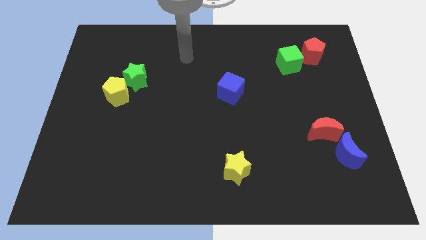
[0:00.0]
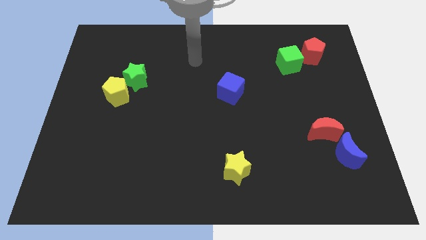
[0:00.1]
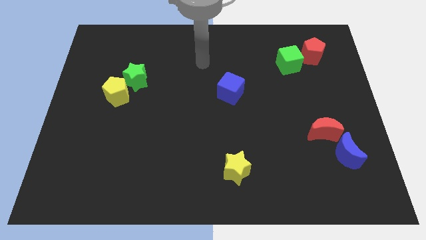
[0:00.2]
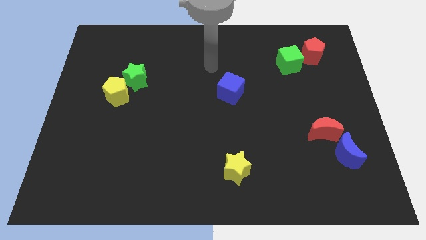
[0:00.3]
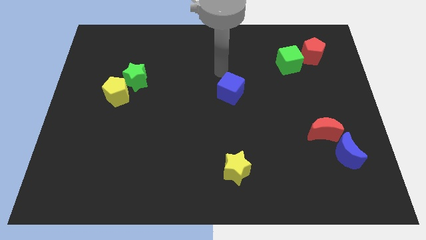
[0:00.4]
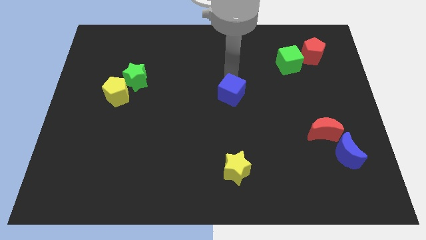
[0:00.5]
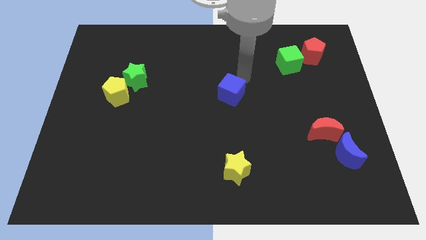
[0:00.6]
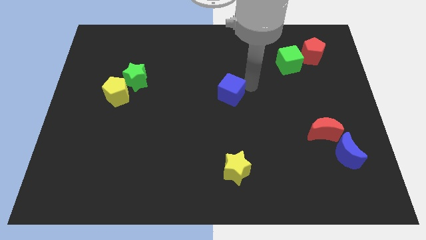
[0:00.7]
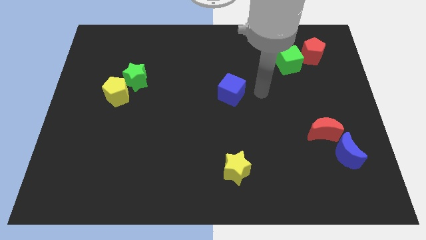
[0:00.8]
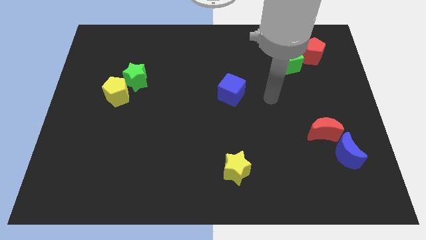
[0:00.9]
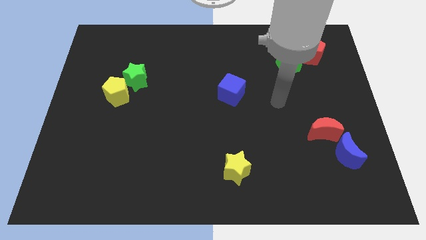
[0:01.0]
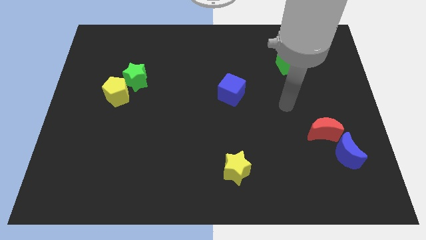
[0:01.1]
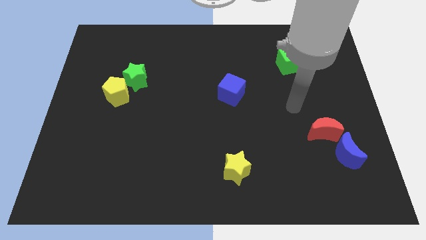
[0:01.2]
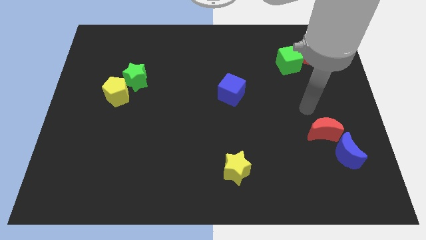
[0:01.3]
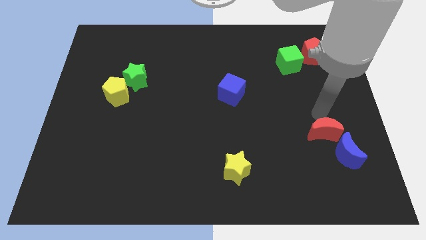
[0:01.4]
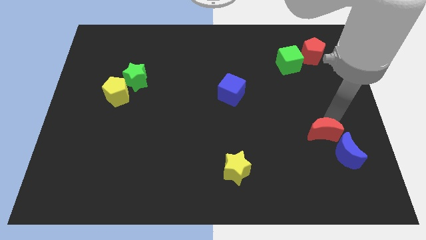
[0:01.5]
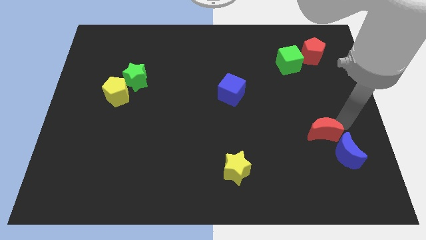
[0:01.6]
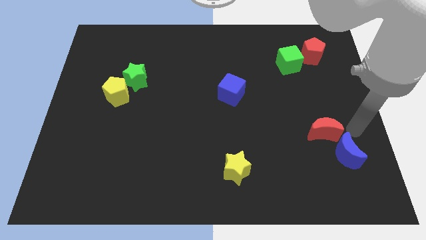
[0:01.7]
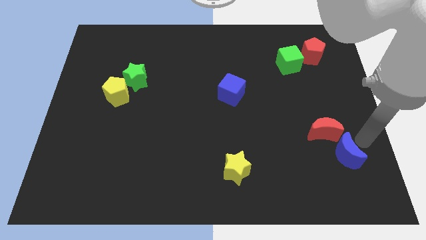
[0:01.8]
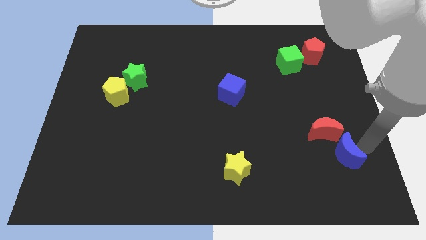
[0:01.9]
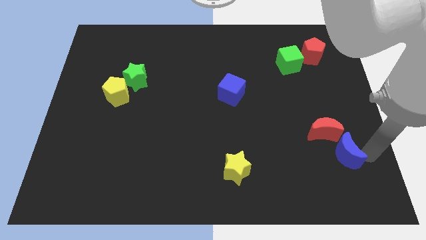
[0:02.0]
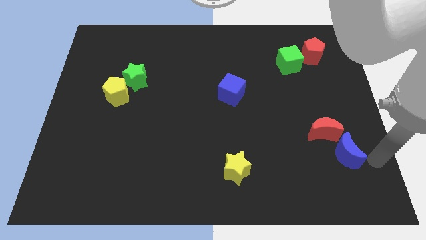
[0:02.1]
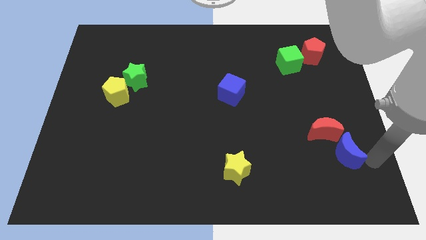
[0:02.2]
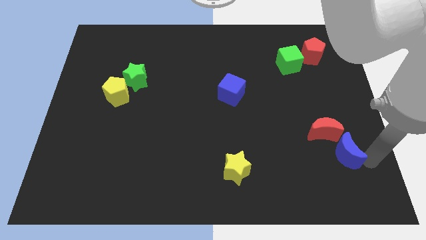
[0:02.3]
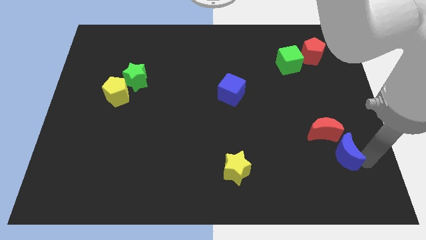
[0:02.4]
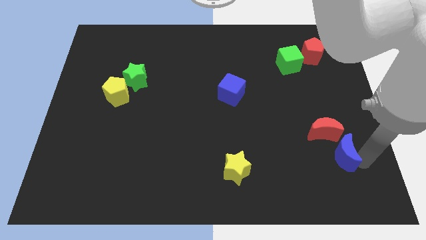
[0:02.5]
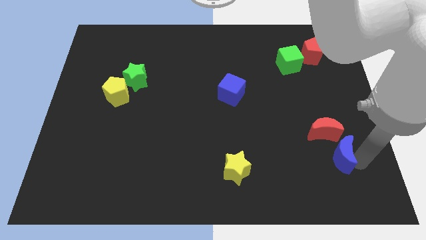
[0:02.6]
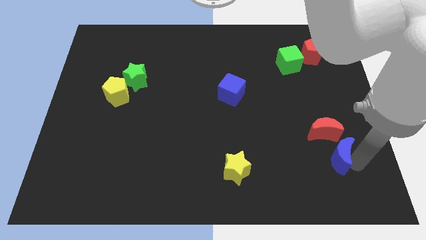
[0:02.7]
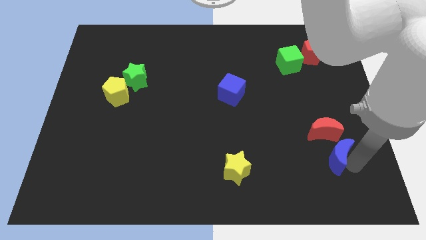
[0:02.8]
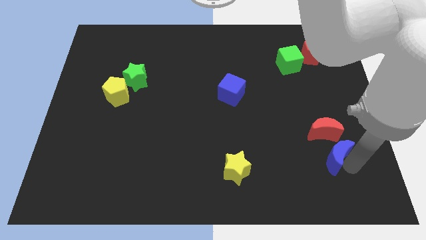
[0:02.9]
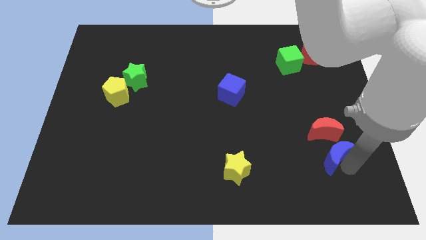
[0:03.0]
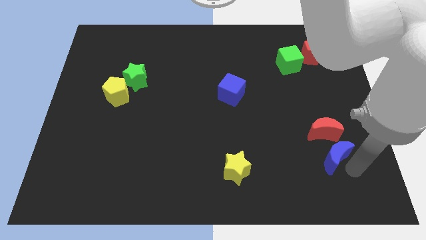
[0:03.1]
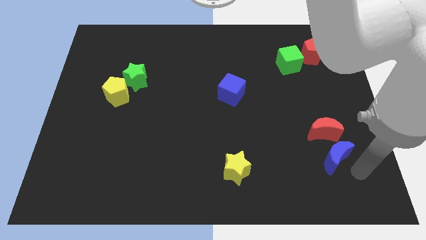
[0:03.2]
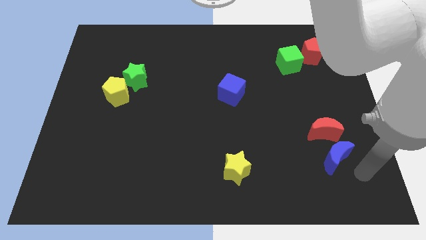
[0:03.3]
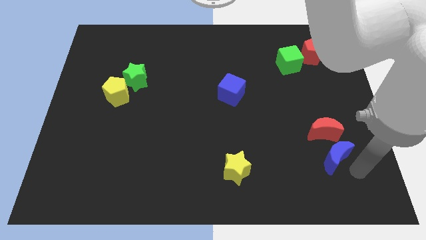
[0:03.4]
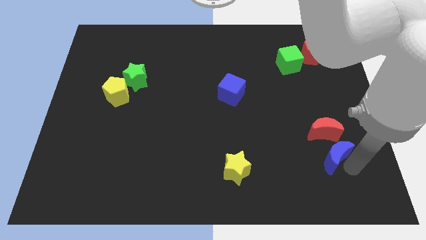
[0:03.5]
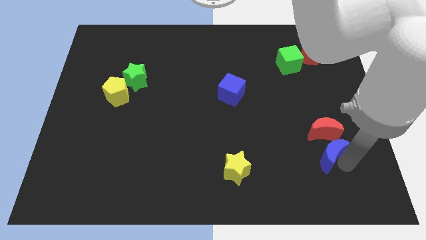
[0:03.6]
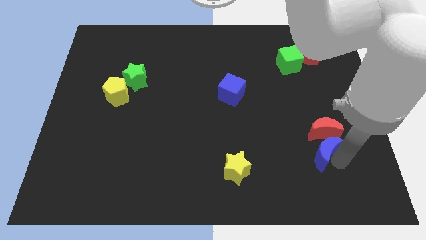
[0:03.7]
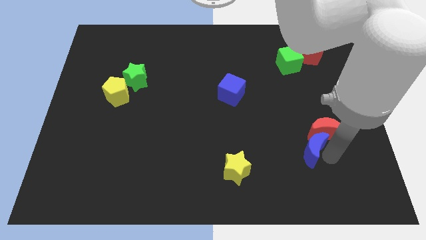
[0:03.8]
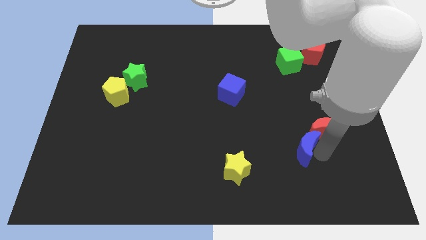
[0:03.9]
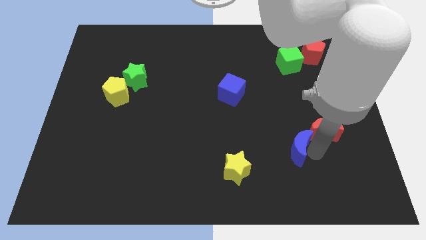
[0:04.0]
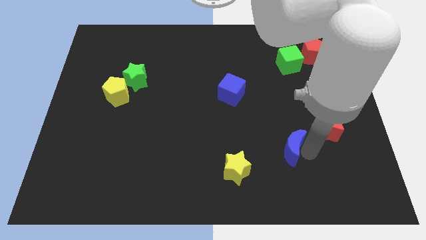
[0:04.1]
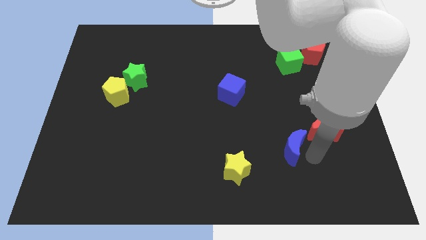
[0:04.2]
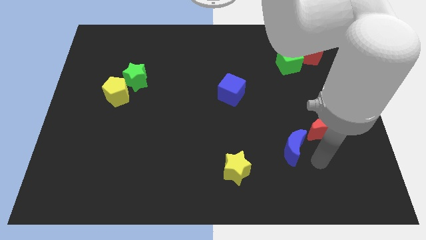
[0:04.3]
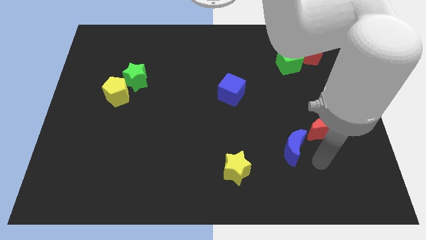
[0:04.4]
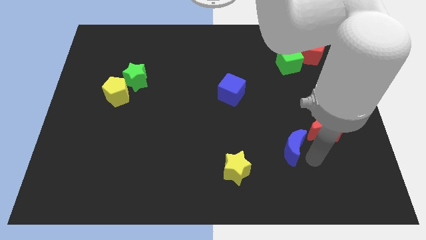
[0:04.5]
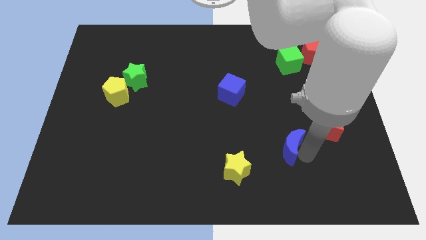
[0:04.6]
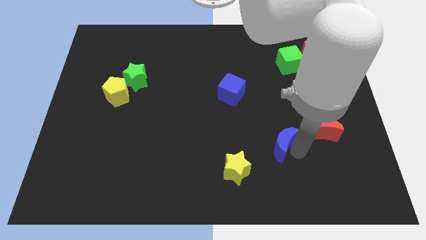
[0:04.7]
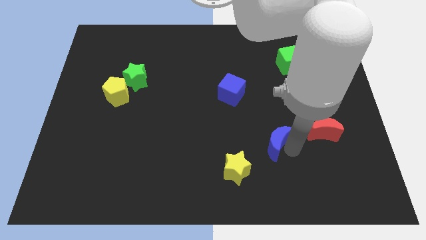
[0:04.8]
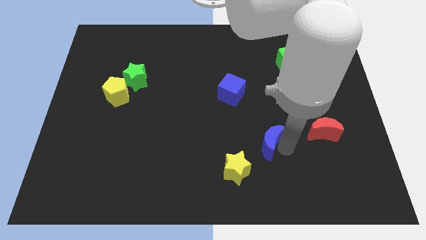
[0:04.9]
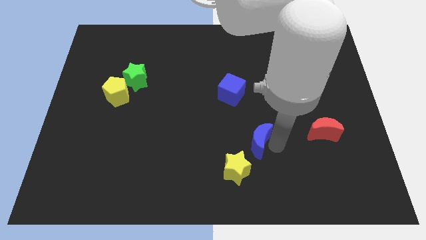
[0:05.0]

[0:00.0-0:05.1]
push the blue moon to the top side of the yellow star

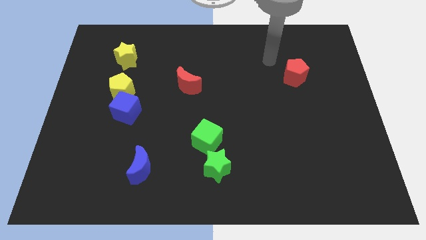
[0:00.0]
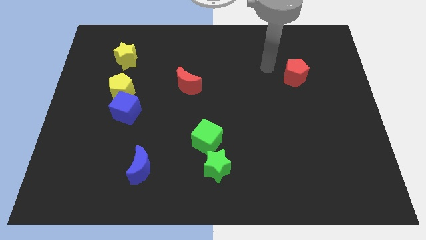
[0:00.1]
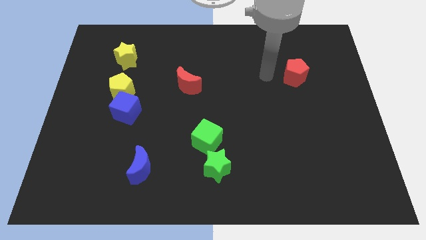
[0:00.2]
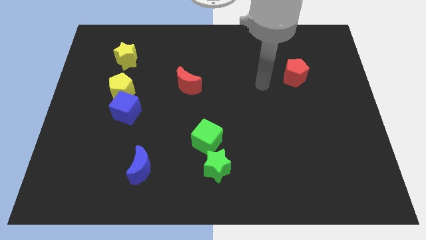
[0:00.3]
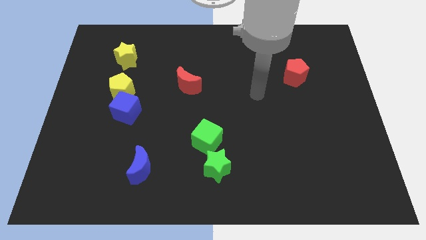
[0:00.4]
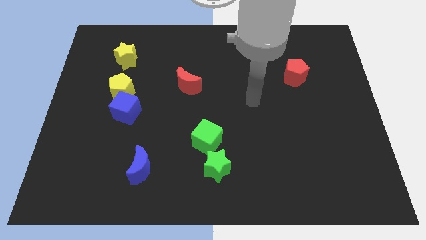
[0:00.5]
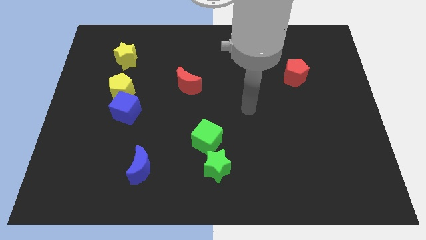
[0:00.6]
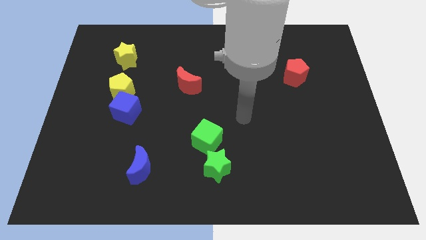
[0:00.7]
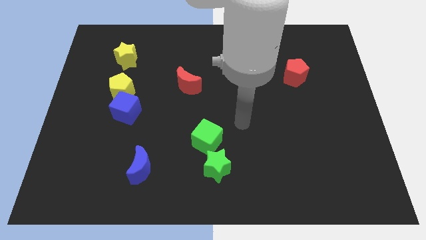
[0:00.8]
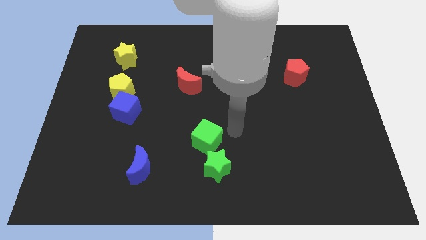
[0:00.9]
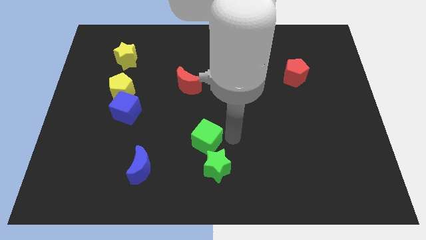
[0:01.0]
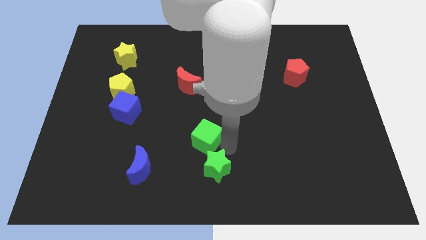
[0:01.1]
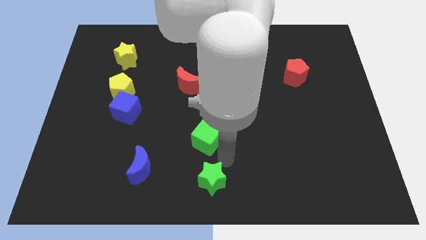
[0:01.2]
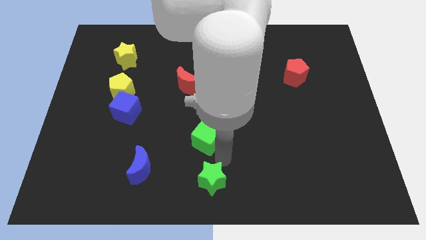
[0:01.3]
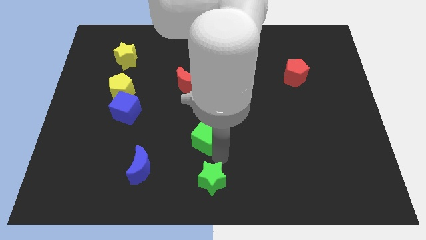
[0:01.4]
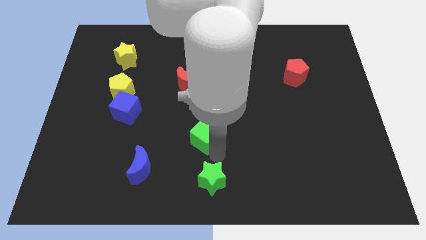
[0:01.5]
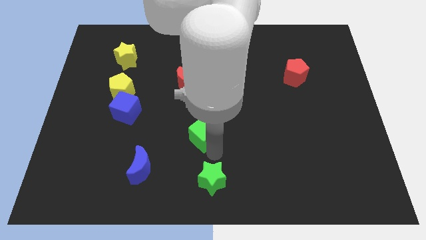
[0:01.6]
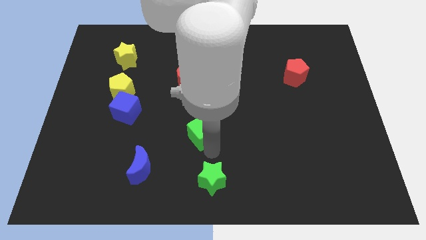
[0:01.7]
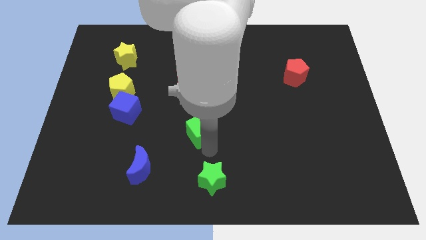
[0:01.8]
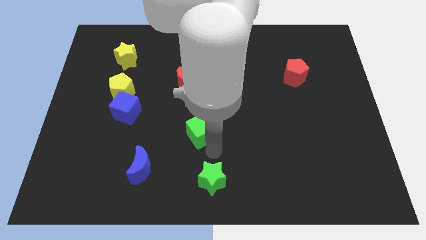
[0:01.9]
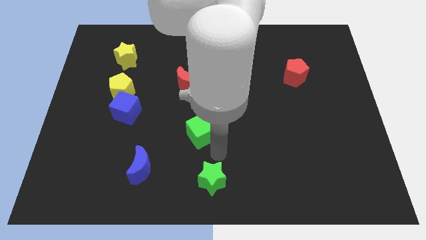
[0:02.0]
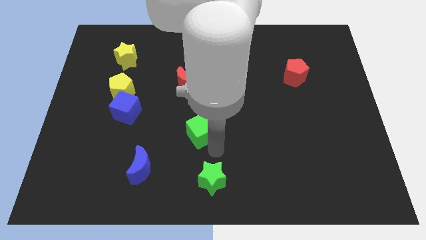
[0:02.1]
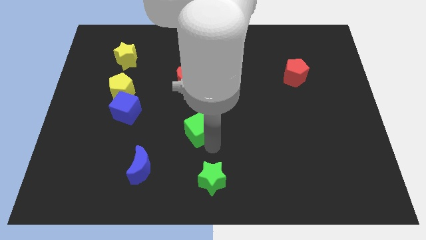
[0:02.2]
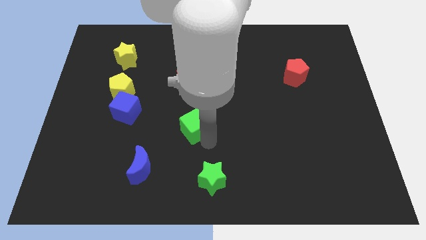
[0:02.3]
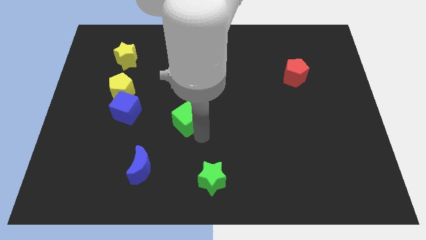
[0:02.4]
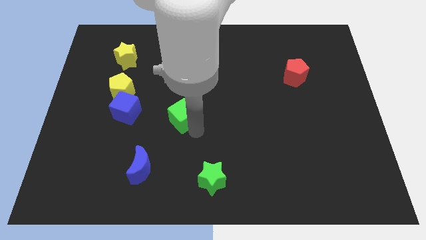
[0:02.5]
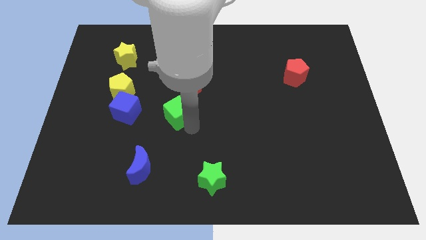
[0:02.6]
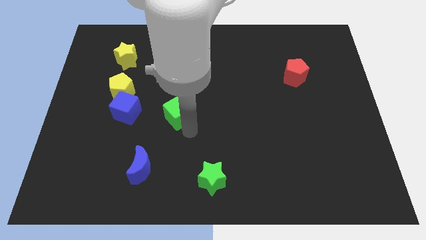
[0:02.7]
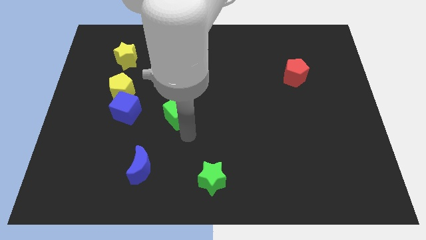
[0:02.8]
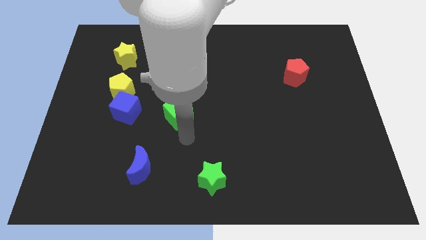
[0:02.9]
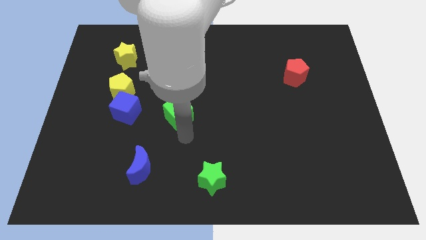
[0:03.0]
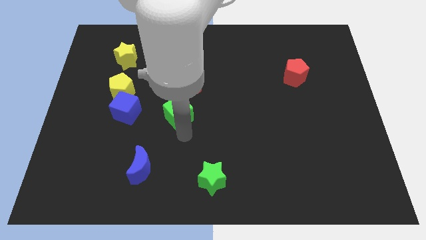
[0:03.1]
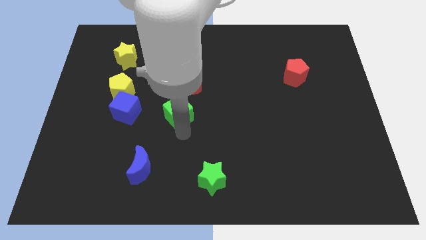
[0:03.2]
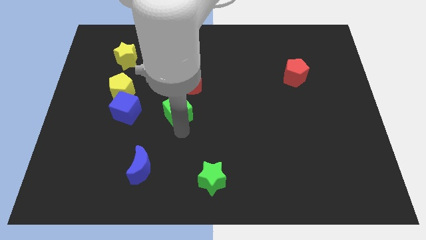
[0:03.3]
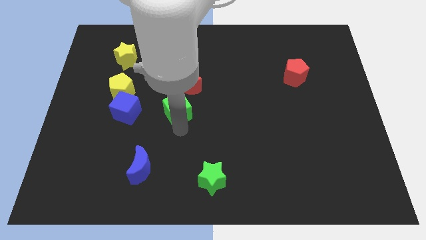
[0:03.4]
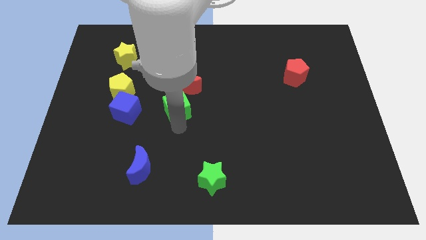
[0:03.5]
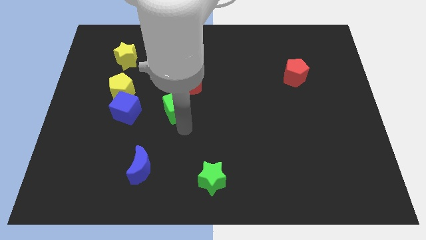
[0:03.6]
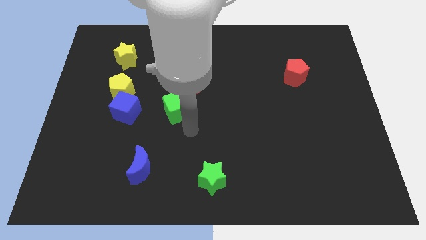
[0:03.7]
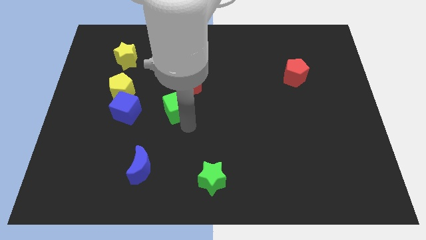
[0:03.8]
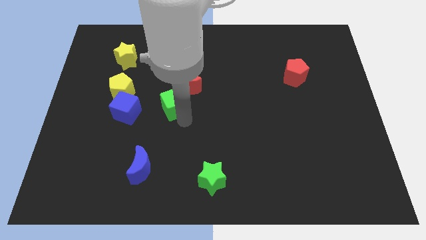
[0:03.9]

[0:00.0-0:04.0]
push the green cube just right of the yellow pentagon
